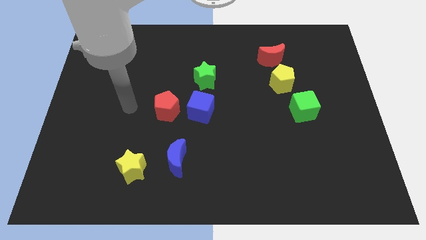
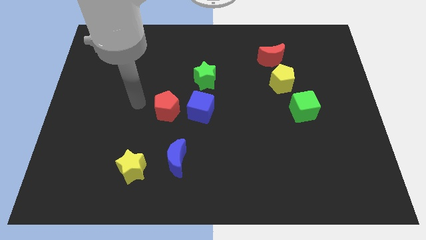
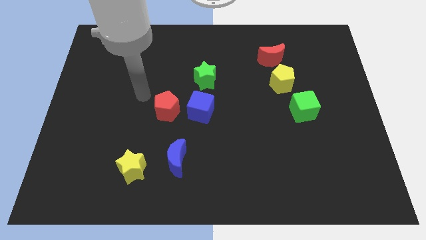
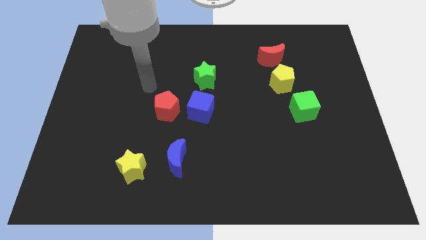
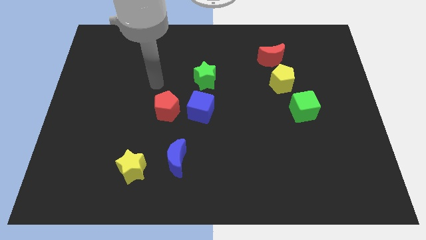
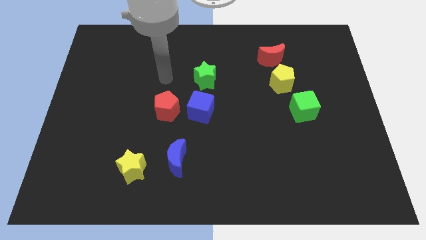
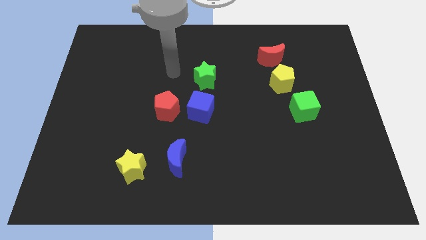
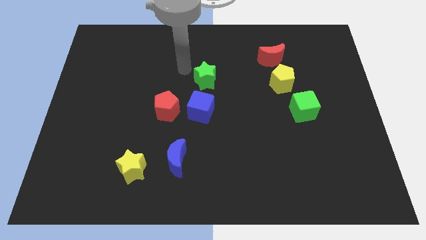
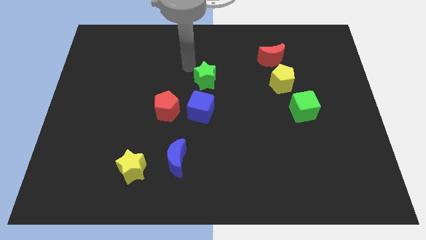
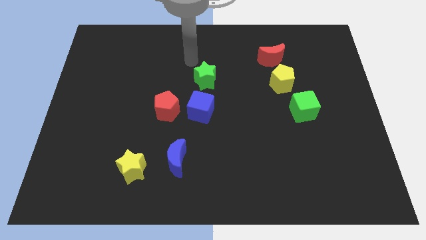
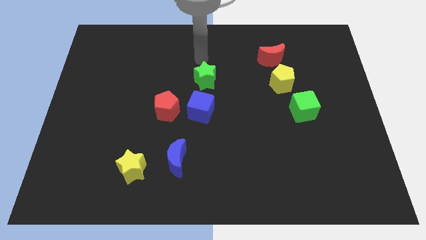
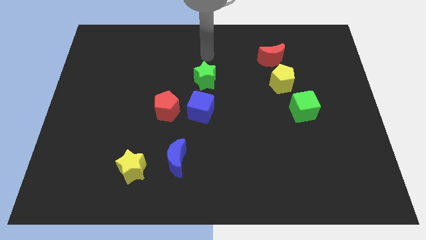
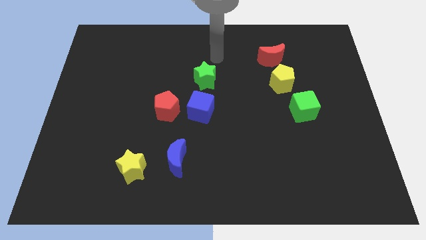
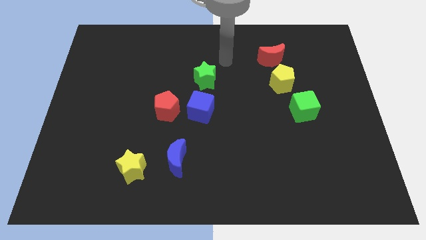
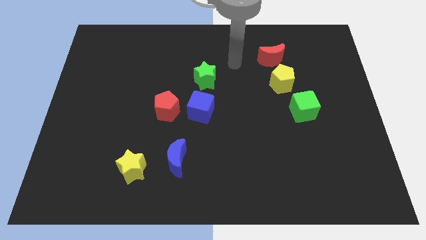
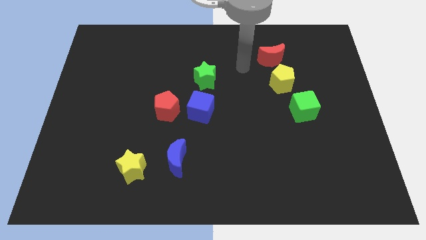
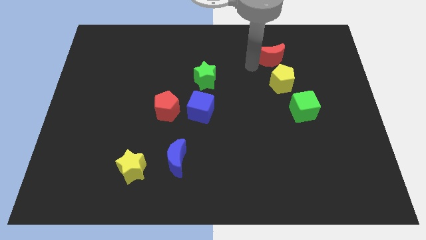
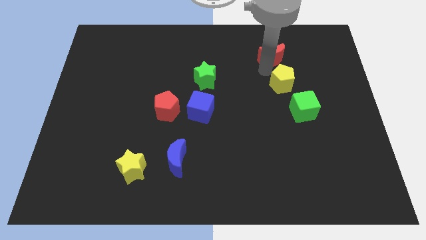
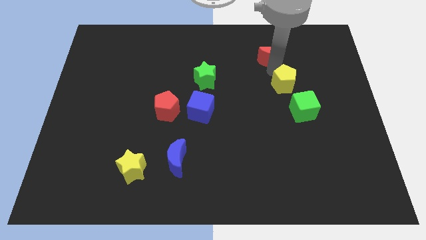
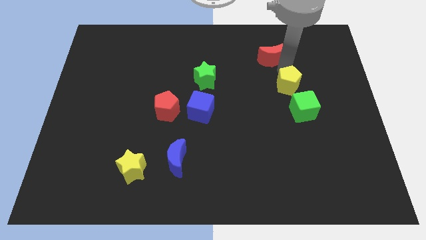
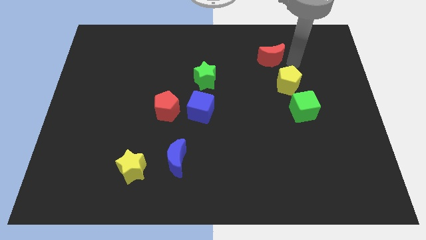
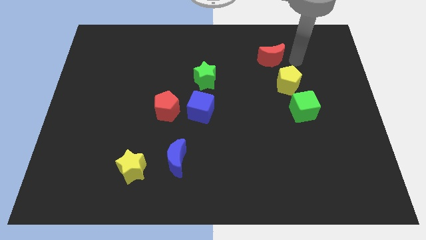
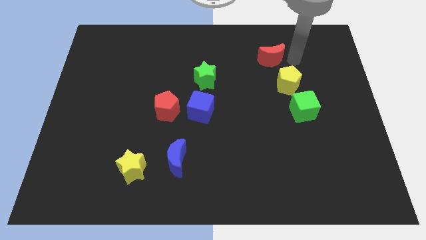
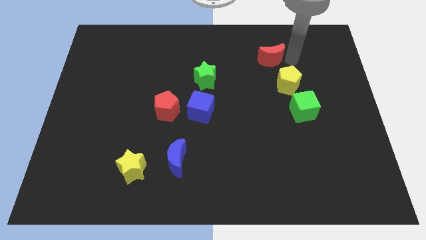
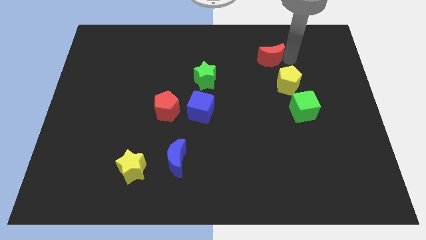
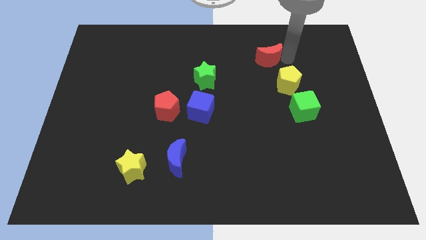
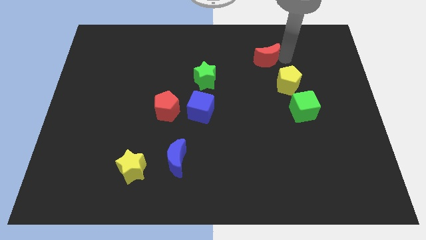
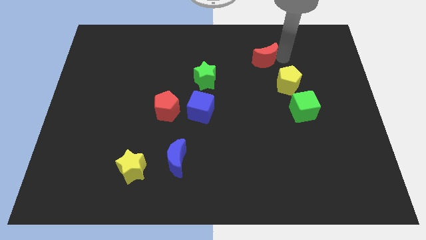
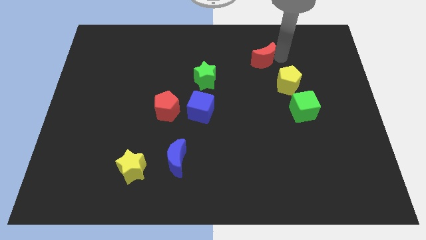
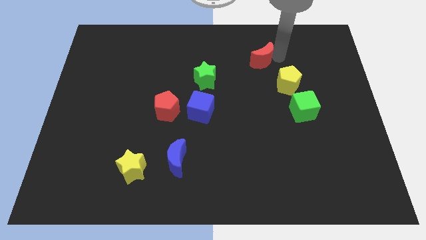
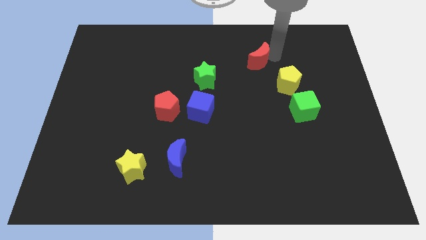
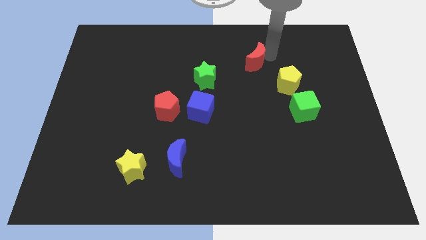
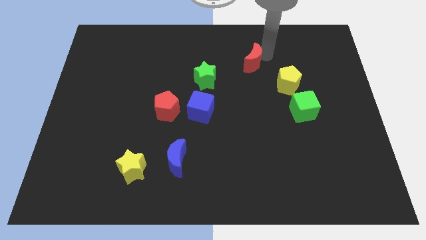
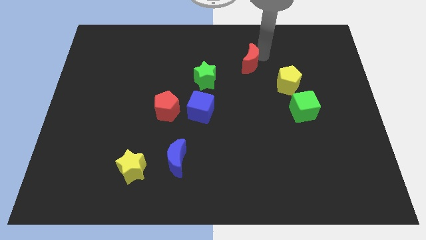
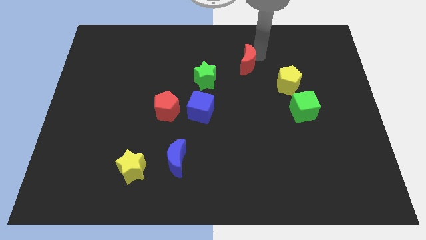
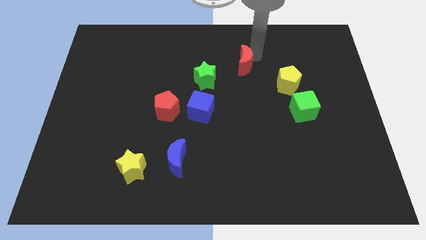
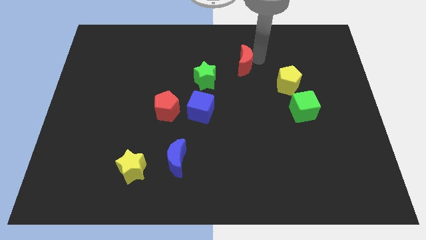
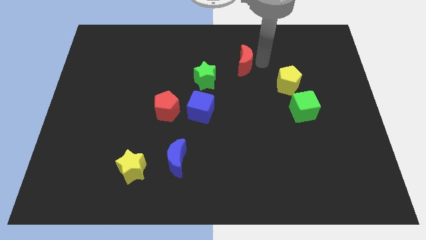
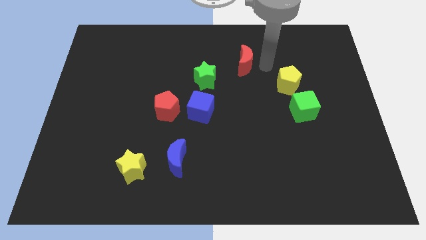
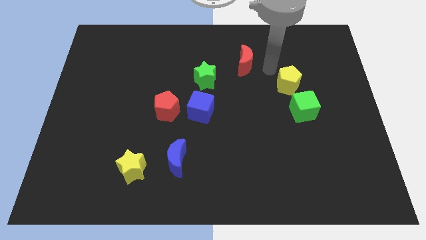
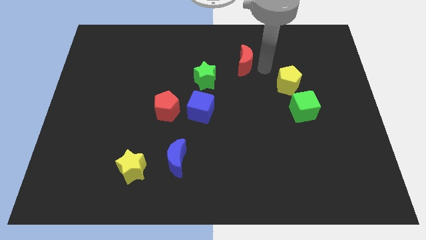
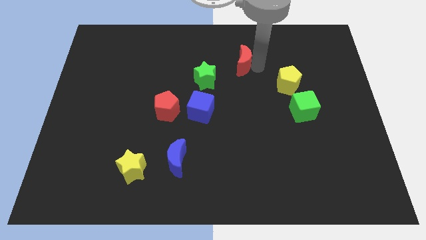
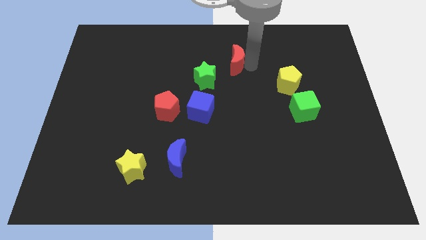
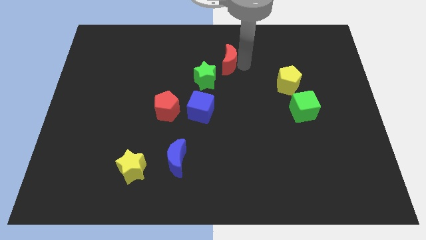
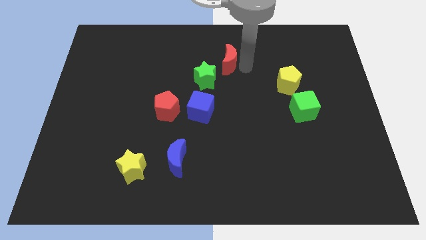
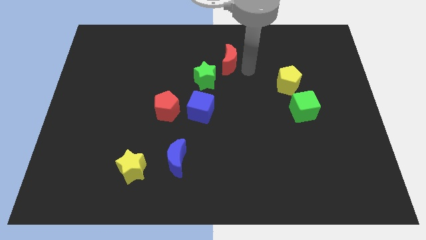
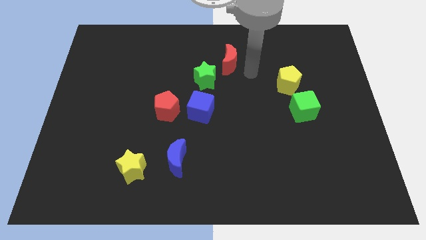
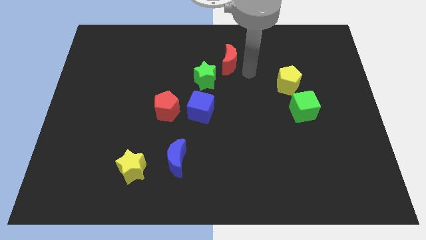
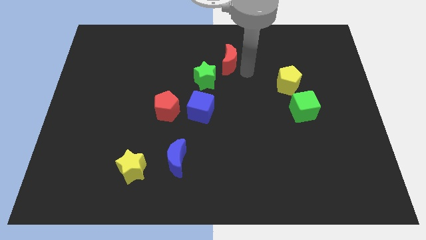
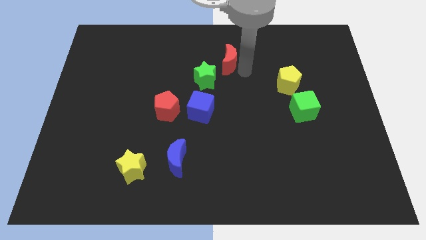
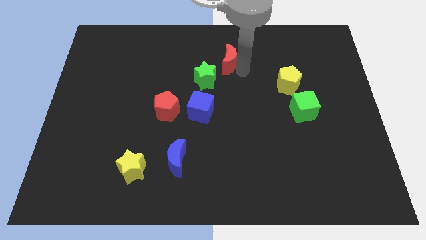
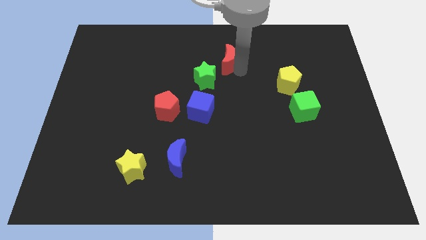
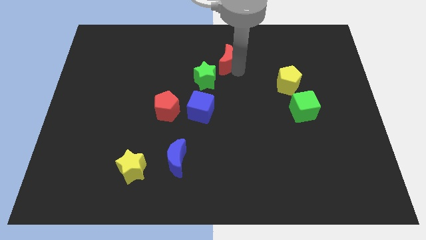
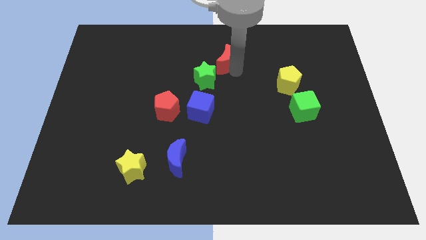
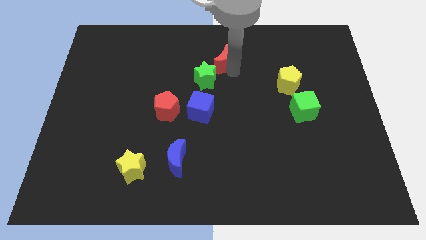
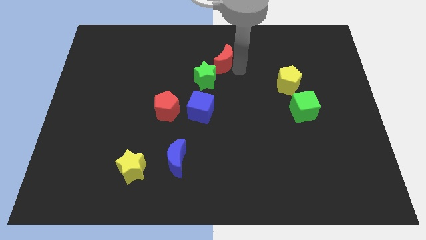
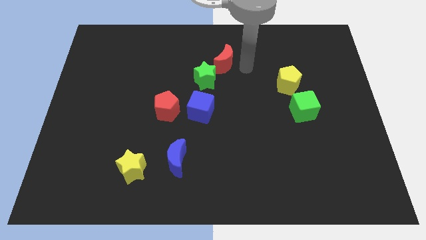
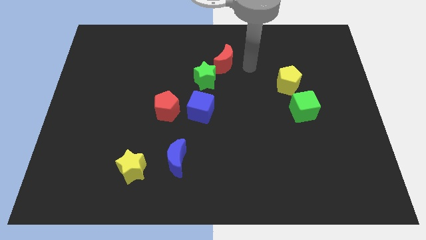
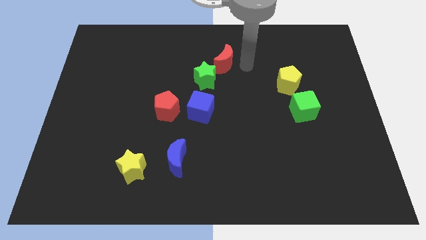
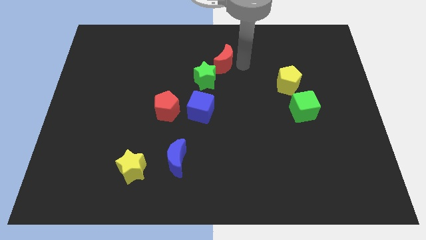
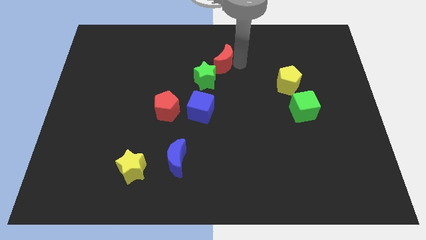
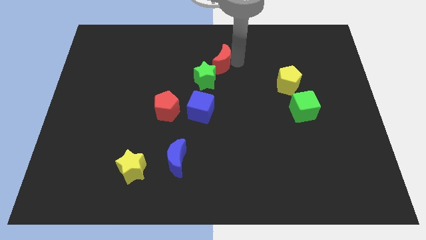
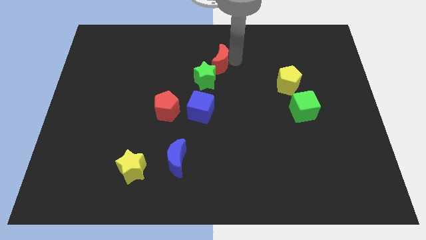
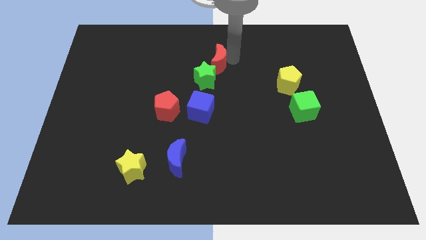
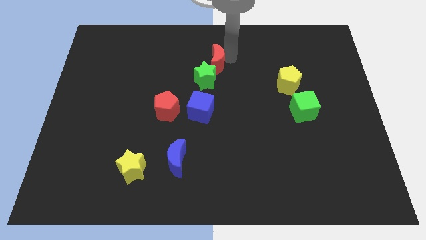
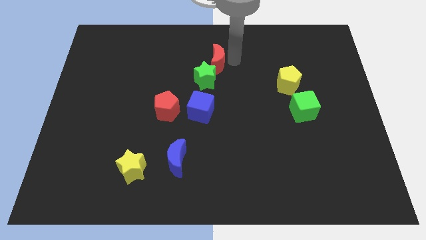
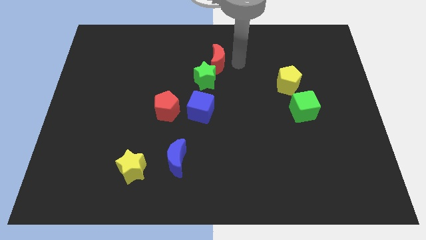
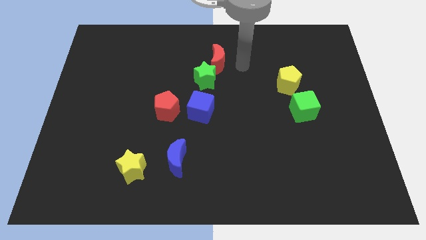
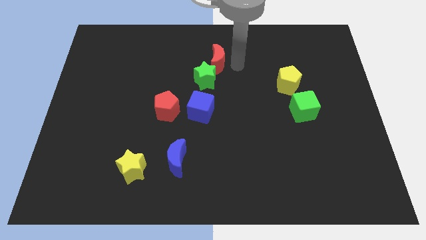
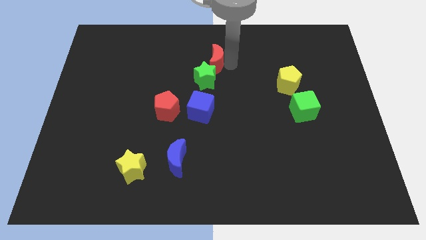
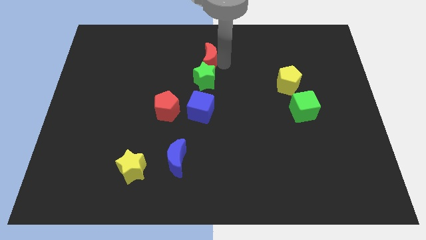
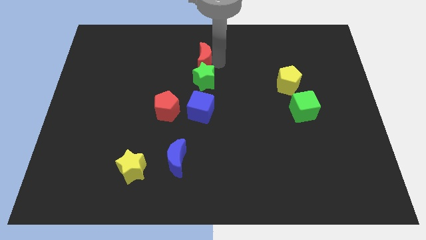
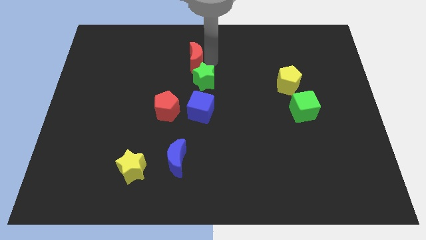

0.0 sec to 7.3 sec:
move the red moon to the left

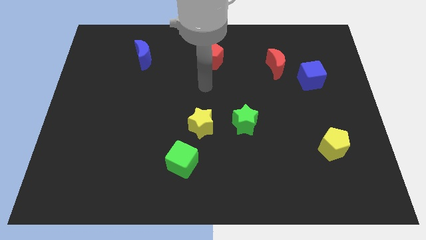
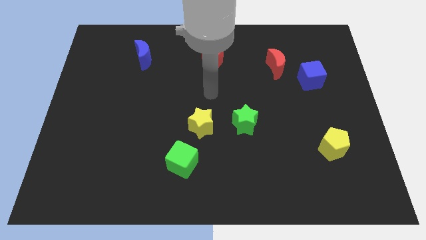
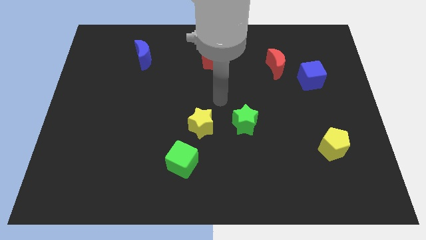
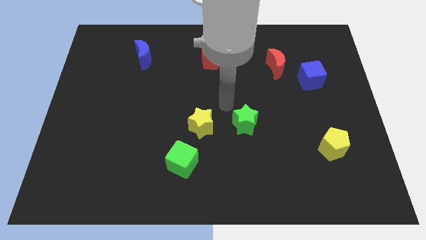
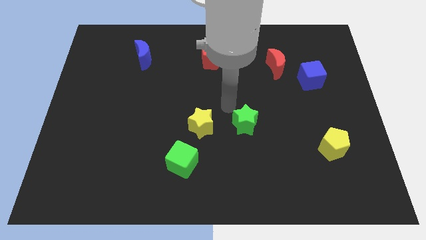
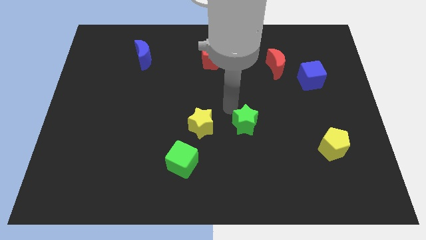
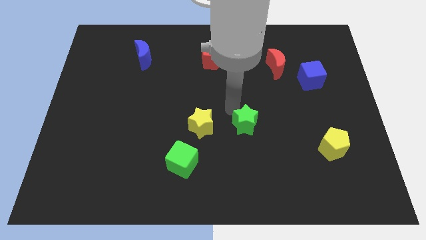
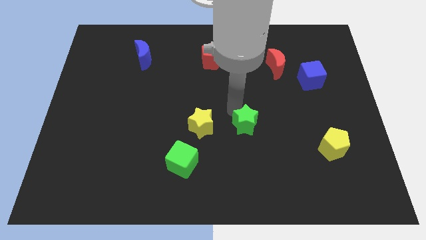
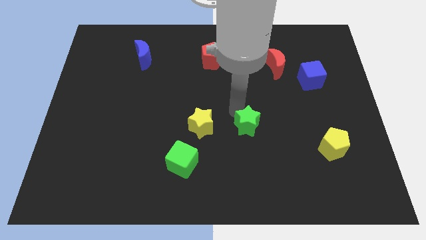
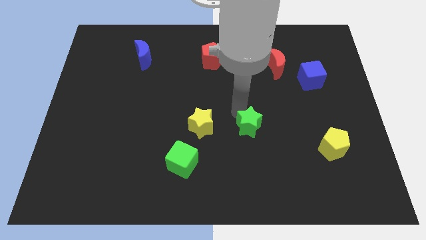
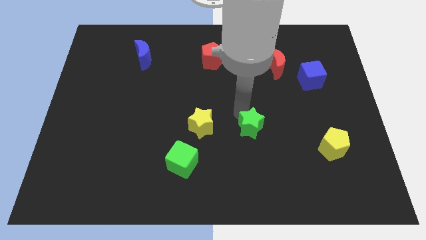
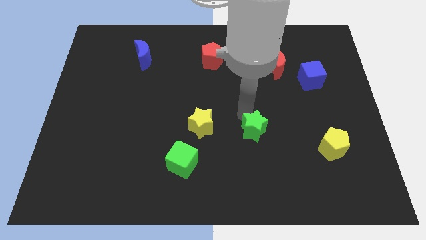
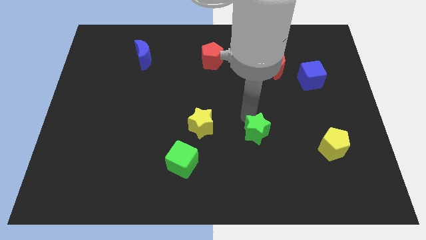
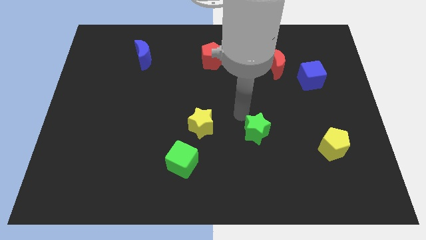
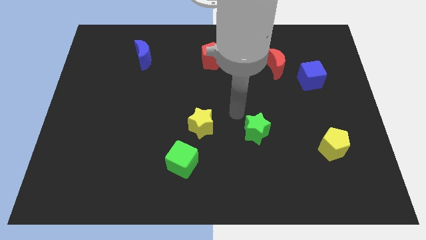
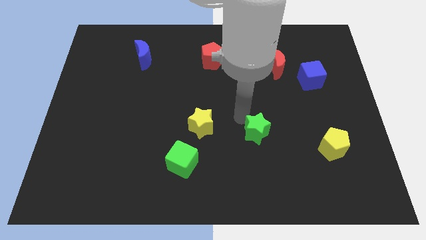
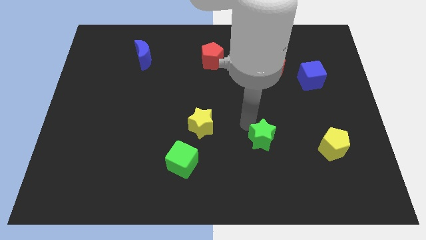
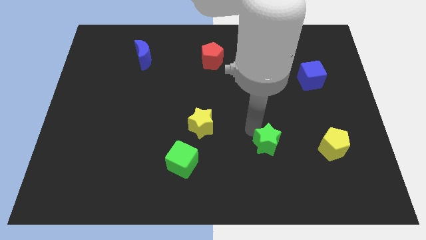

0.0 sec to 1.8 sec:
slide the green star downwards and right diagonally a little
